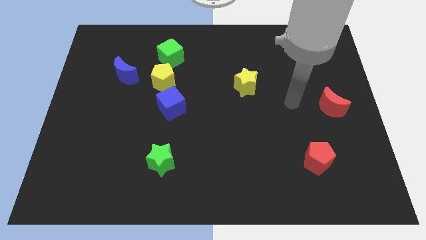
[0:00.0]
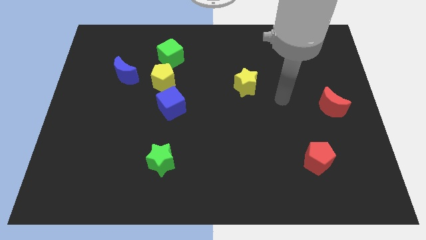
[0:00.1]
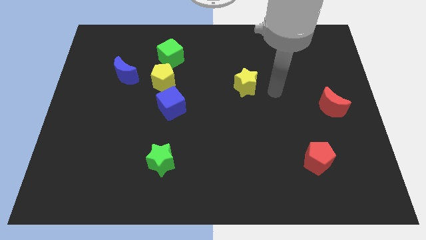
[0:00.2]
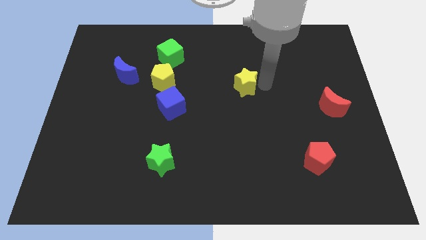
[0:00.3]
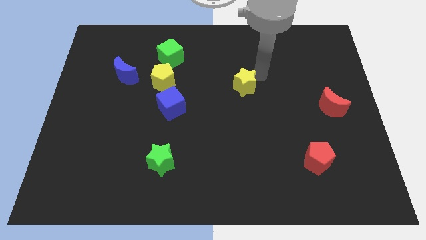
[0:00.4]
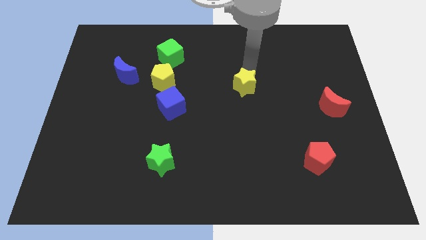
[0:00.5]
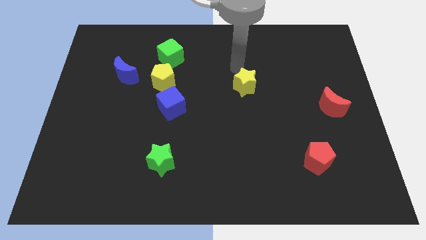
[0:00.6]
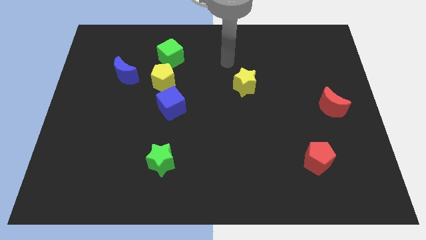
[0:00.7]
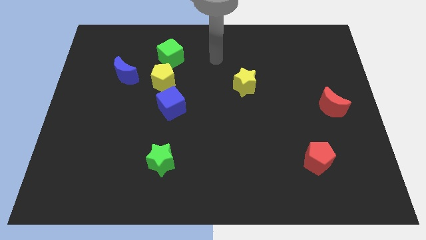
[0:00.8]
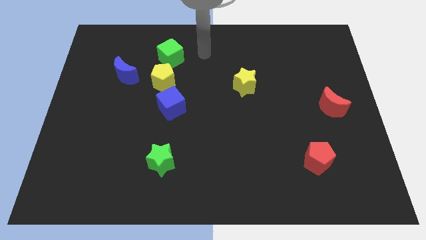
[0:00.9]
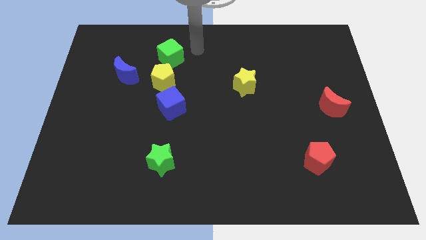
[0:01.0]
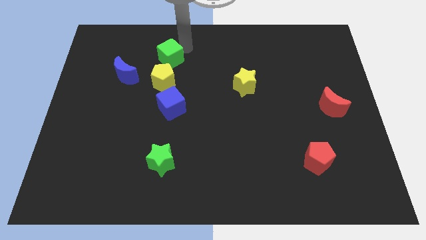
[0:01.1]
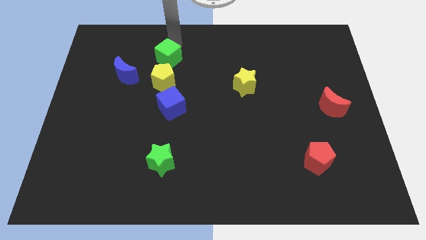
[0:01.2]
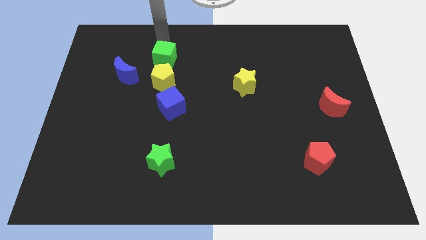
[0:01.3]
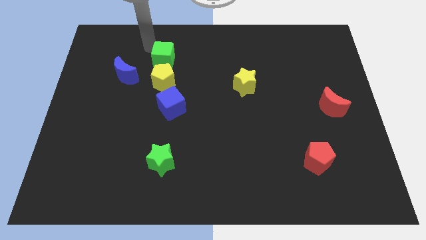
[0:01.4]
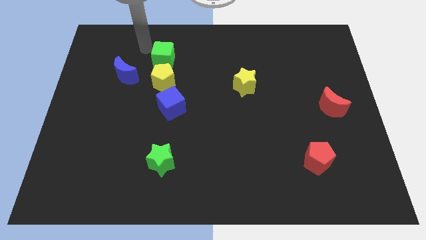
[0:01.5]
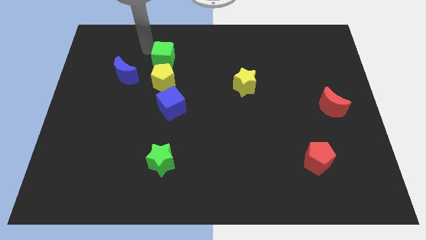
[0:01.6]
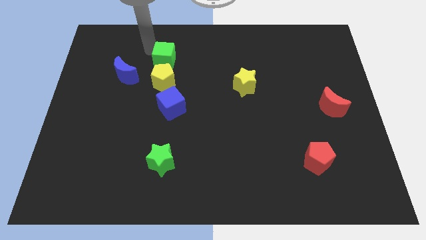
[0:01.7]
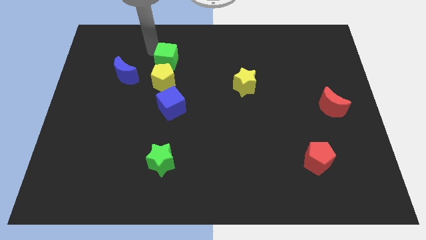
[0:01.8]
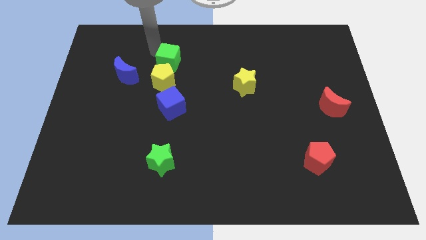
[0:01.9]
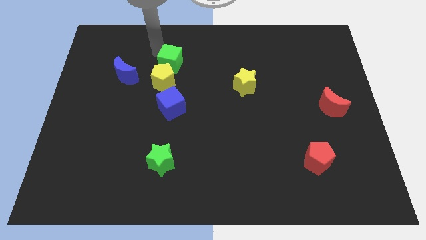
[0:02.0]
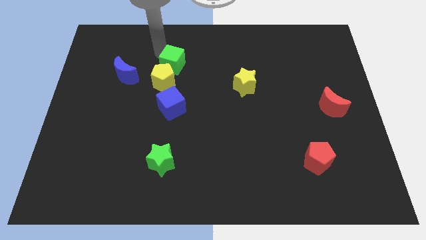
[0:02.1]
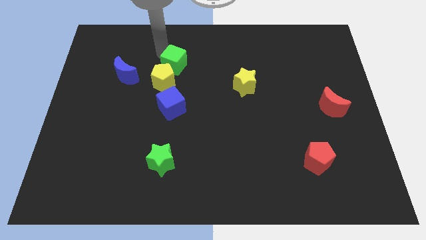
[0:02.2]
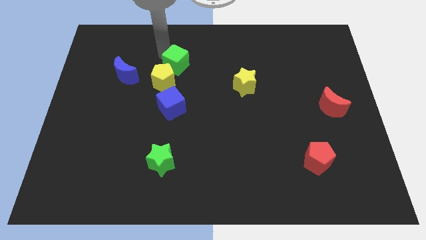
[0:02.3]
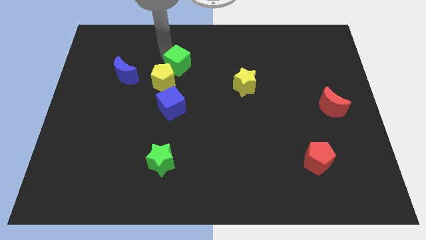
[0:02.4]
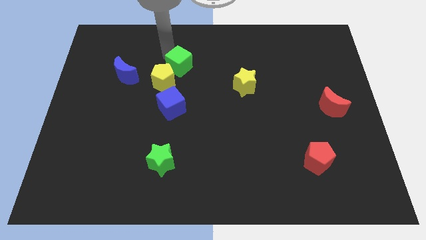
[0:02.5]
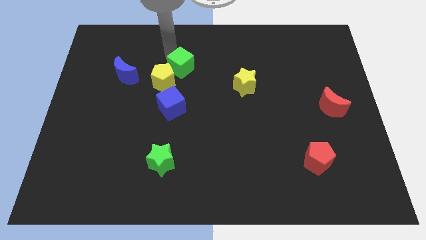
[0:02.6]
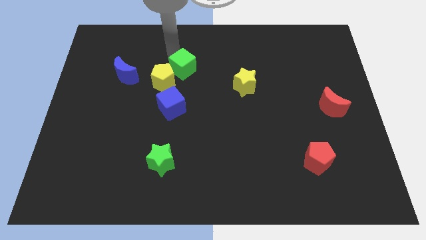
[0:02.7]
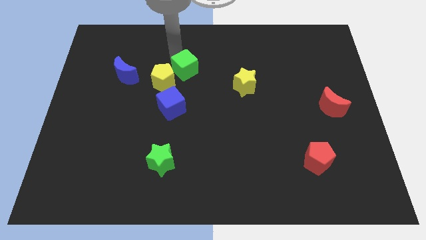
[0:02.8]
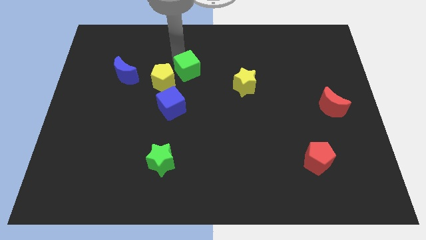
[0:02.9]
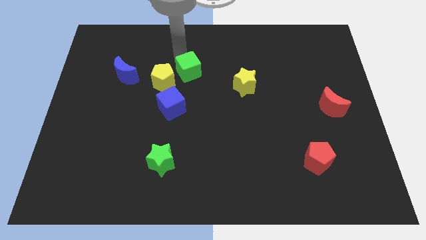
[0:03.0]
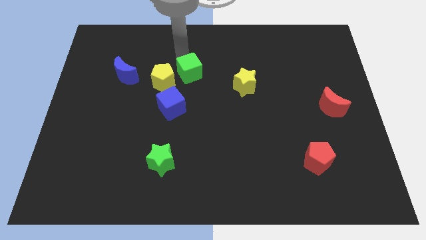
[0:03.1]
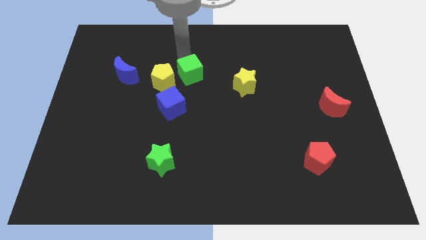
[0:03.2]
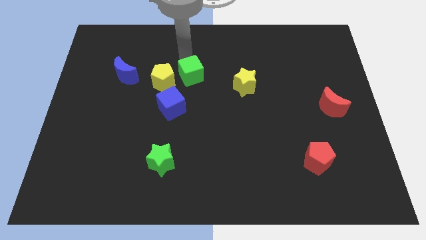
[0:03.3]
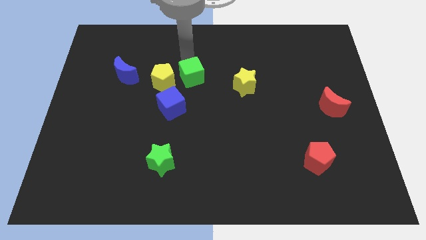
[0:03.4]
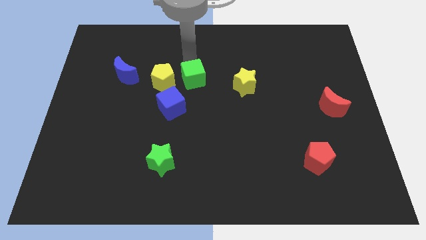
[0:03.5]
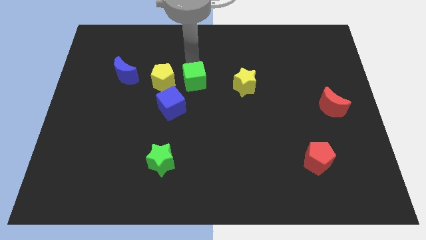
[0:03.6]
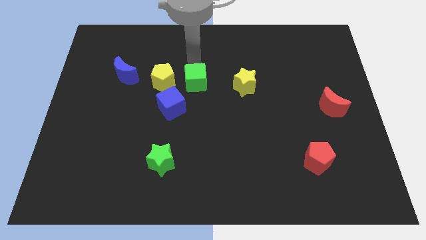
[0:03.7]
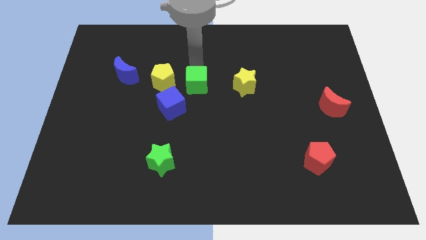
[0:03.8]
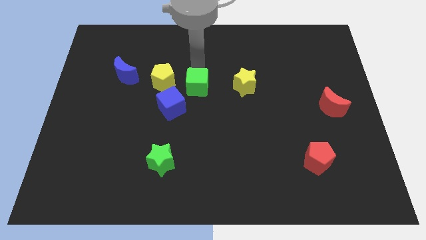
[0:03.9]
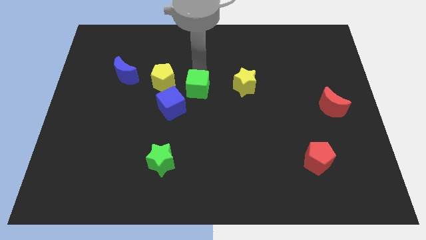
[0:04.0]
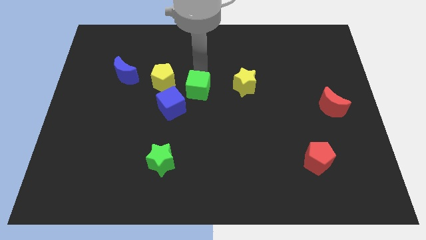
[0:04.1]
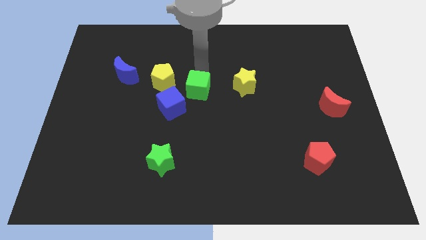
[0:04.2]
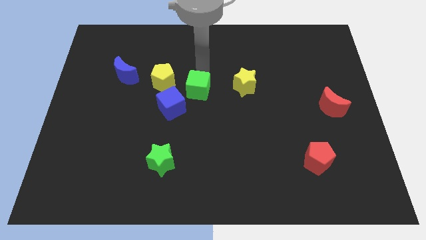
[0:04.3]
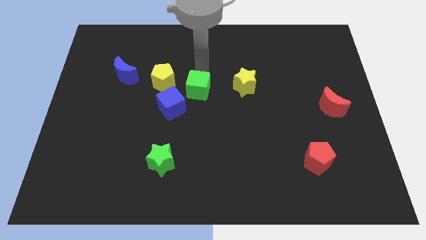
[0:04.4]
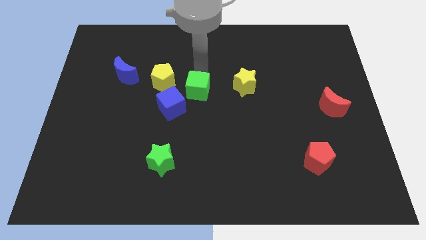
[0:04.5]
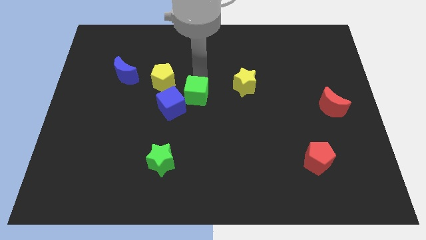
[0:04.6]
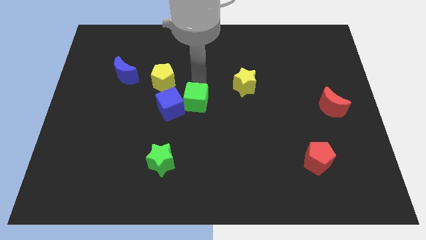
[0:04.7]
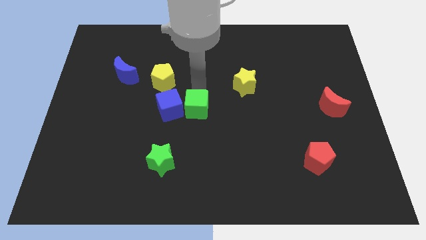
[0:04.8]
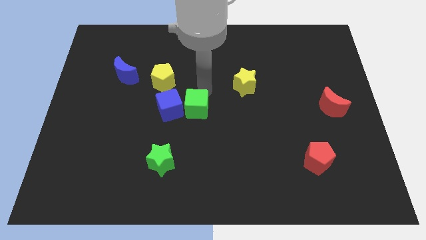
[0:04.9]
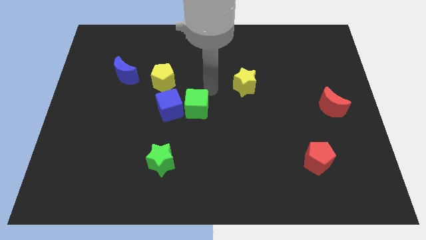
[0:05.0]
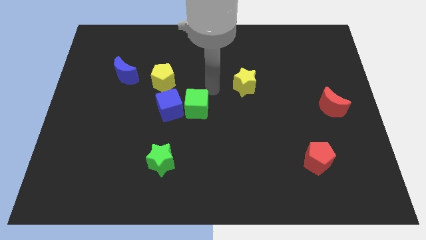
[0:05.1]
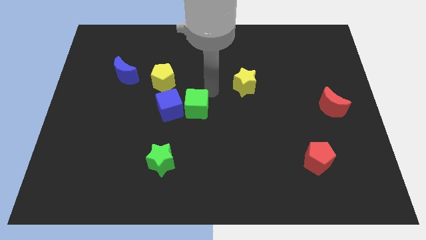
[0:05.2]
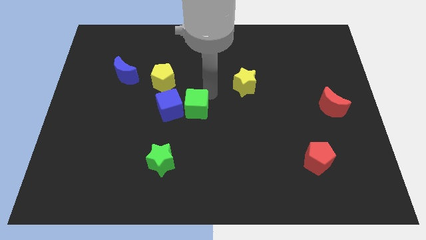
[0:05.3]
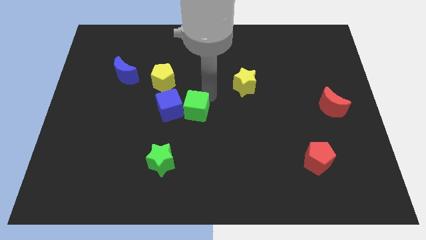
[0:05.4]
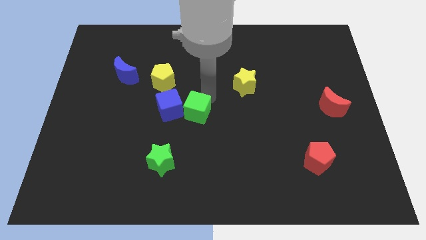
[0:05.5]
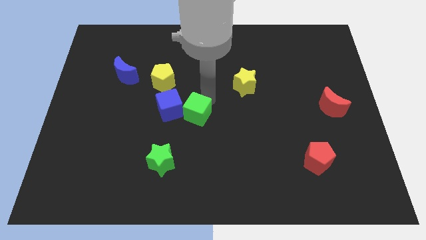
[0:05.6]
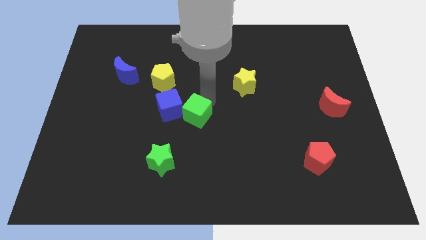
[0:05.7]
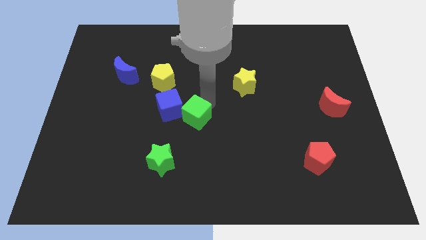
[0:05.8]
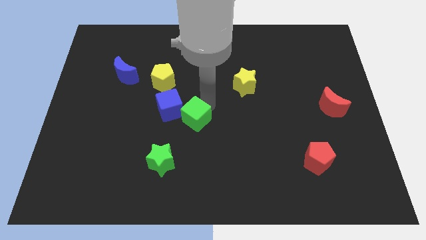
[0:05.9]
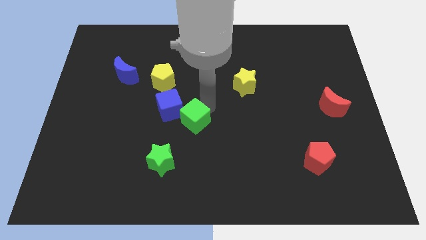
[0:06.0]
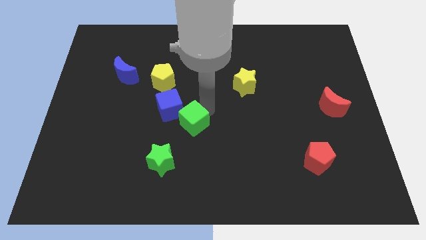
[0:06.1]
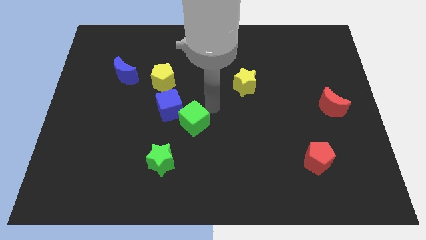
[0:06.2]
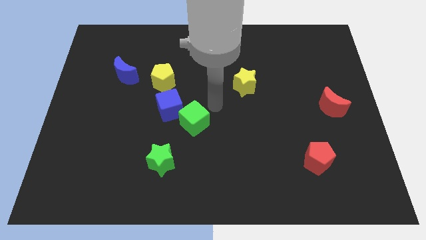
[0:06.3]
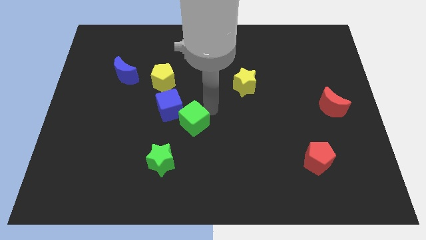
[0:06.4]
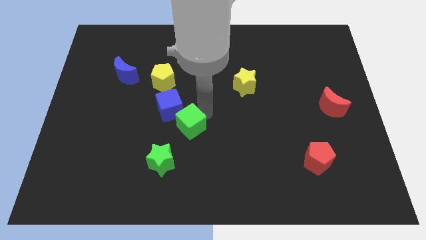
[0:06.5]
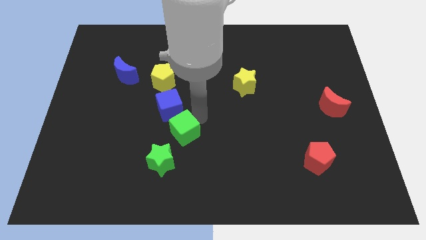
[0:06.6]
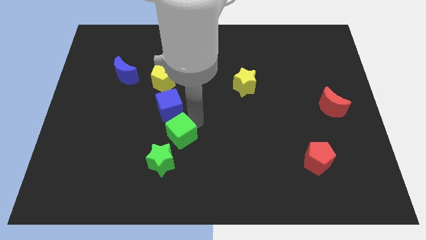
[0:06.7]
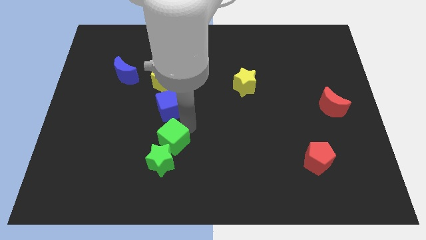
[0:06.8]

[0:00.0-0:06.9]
put the green cube next to the green star
